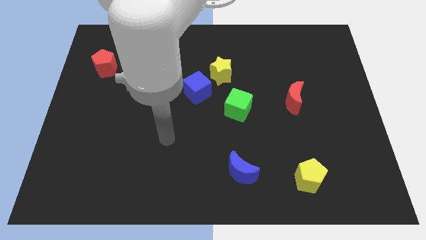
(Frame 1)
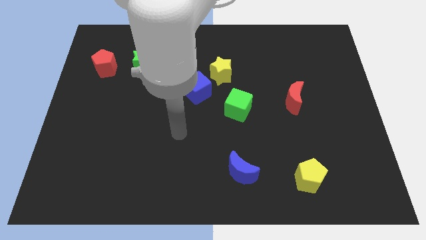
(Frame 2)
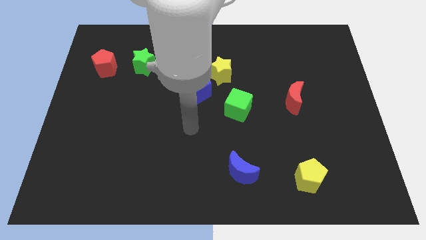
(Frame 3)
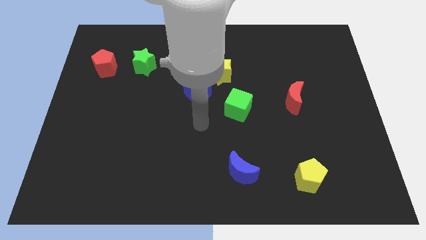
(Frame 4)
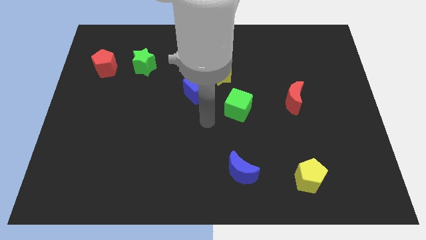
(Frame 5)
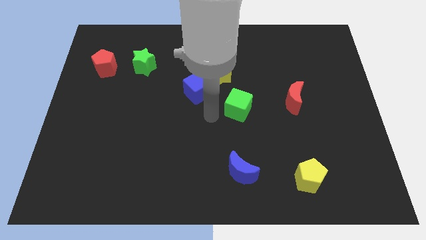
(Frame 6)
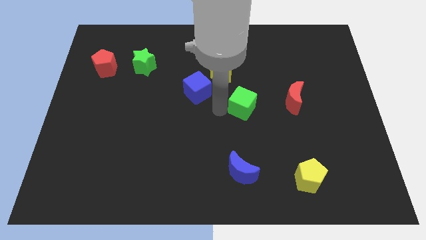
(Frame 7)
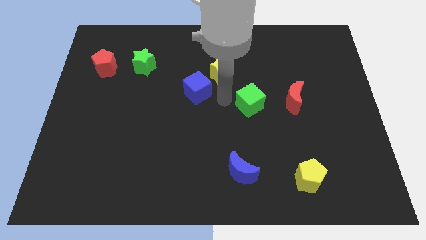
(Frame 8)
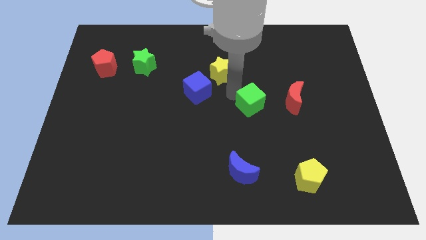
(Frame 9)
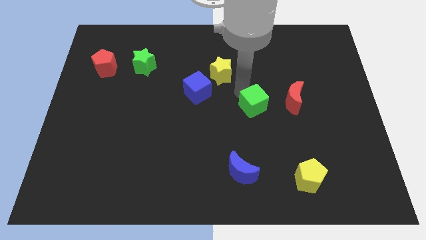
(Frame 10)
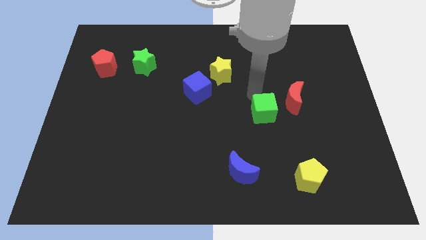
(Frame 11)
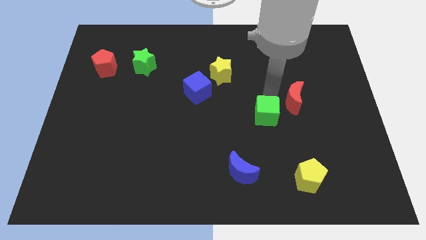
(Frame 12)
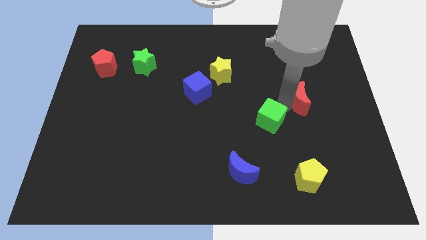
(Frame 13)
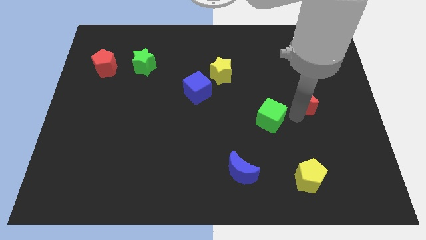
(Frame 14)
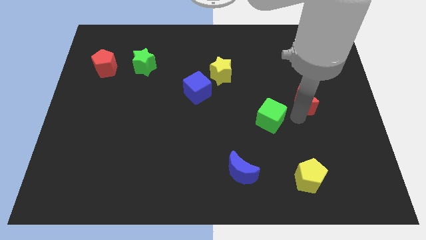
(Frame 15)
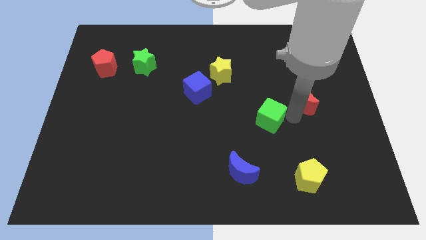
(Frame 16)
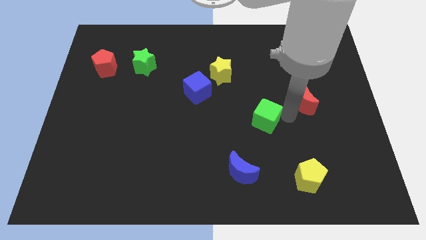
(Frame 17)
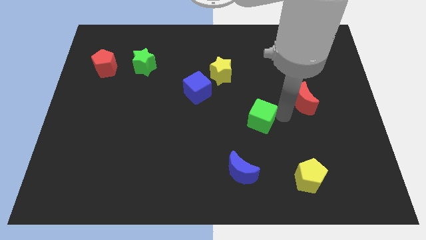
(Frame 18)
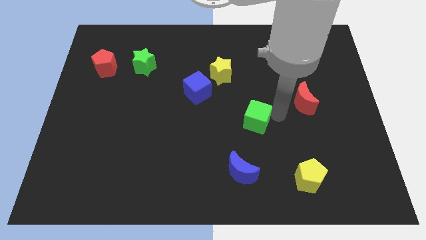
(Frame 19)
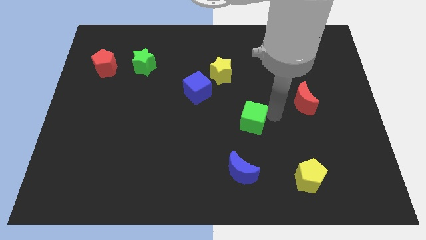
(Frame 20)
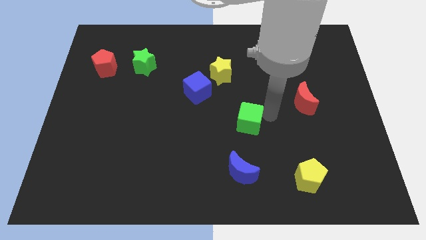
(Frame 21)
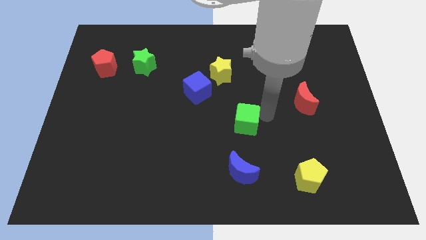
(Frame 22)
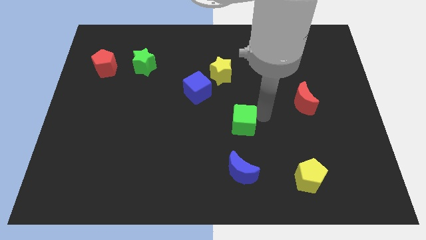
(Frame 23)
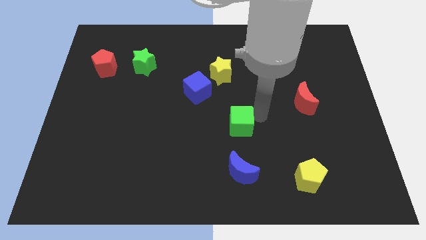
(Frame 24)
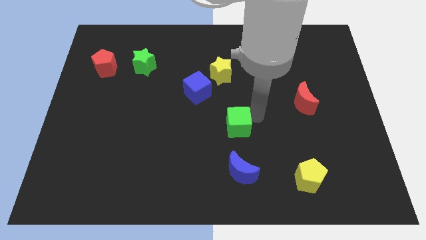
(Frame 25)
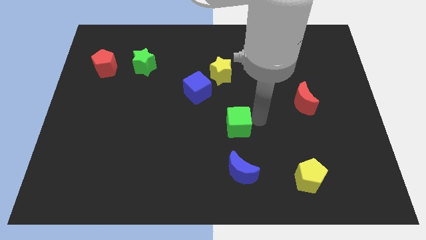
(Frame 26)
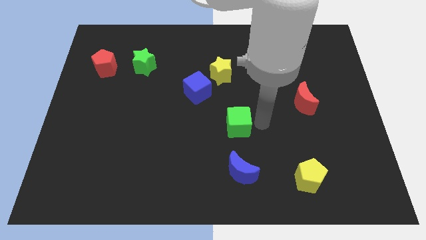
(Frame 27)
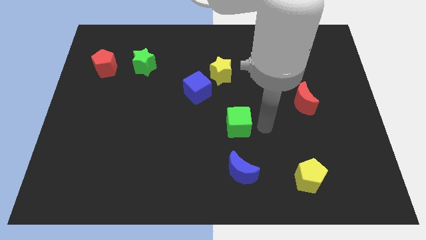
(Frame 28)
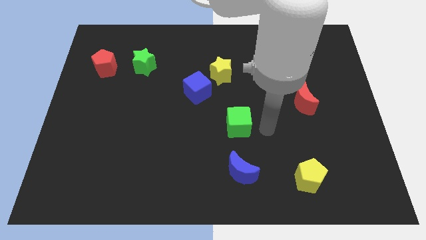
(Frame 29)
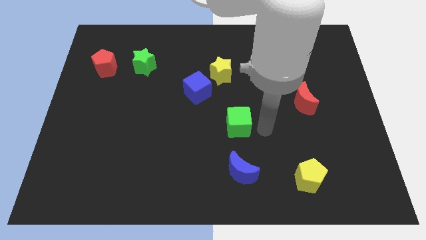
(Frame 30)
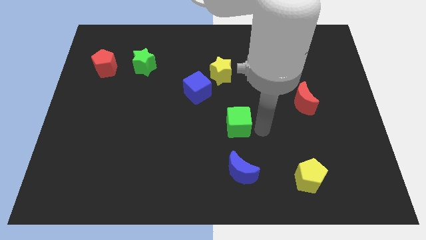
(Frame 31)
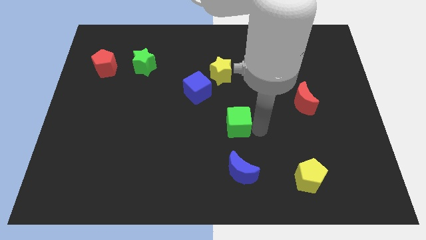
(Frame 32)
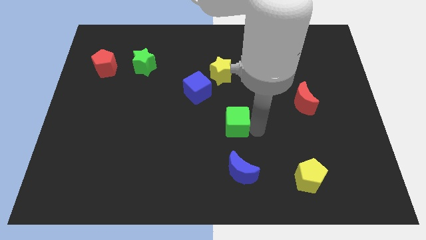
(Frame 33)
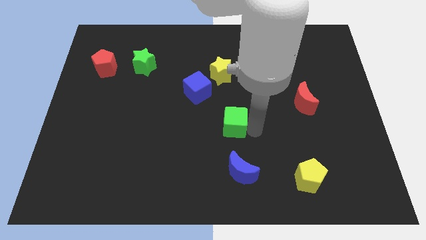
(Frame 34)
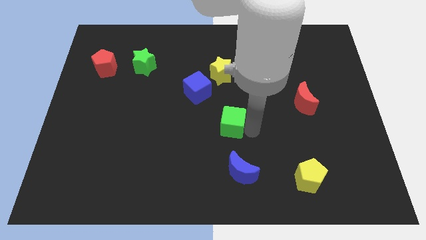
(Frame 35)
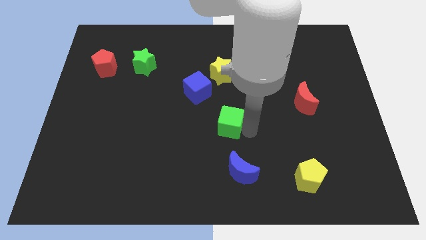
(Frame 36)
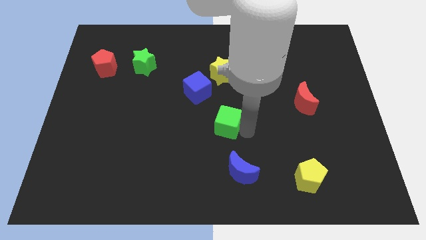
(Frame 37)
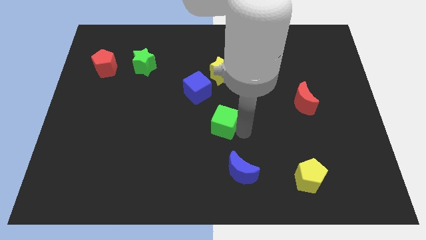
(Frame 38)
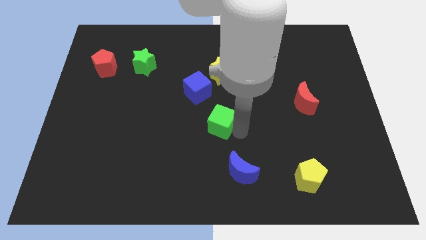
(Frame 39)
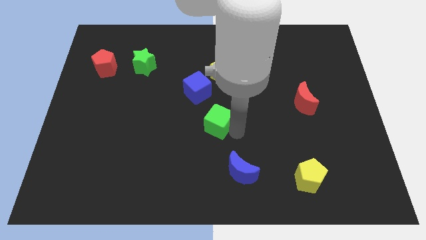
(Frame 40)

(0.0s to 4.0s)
slightly slide the green cube downwards and to the left diagonally

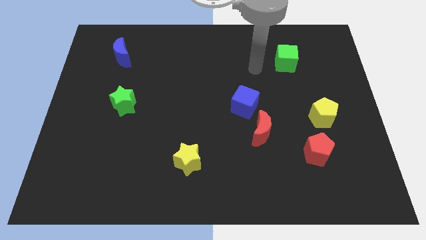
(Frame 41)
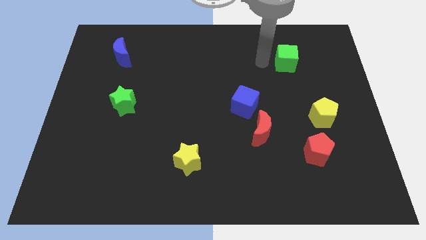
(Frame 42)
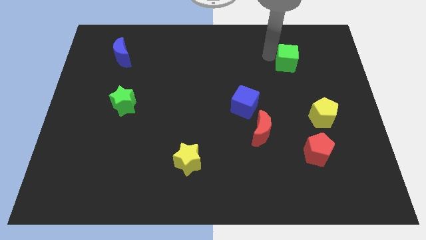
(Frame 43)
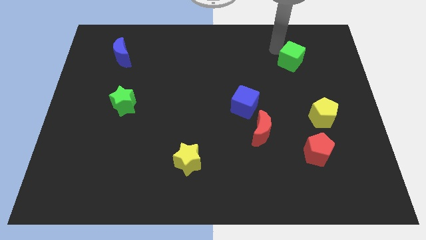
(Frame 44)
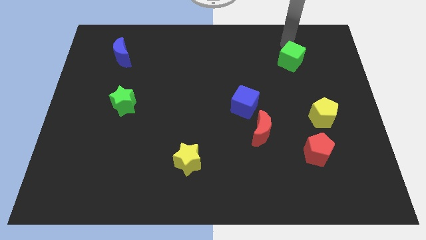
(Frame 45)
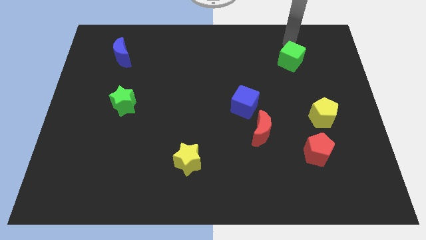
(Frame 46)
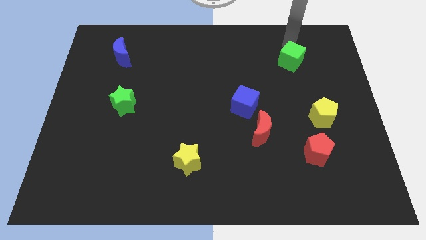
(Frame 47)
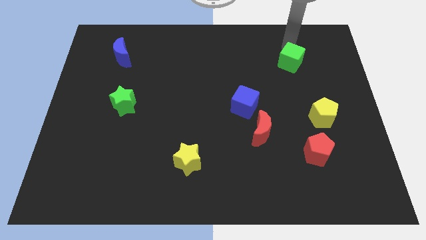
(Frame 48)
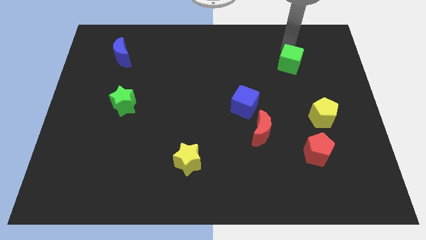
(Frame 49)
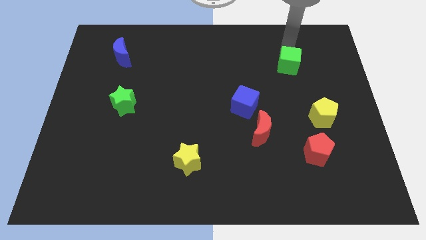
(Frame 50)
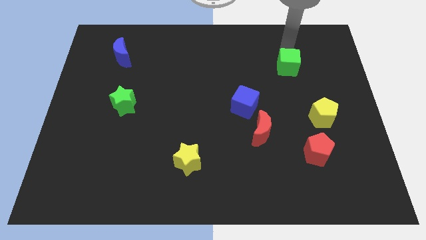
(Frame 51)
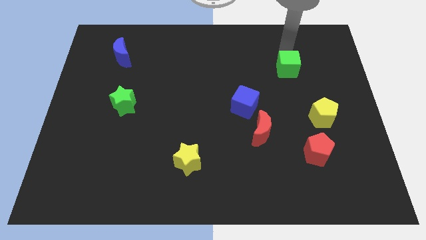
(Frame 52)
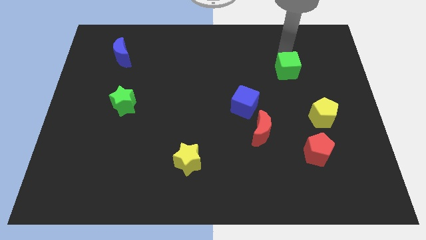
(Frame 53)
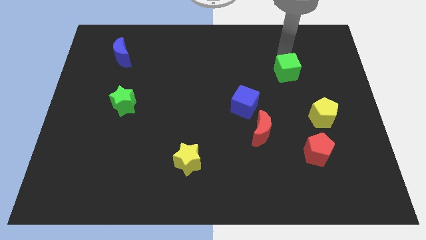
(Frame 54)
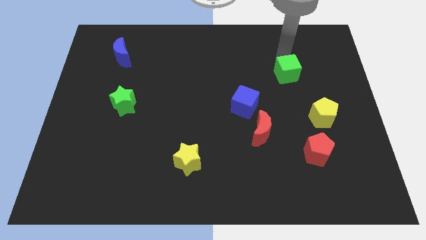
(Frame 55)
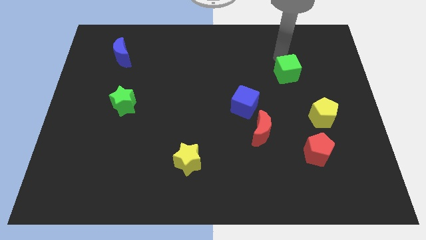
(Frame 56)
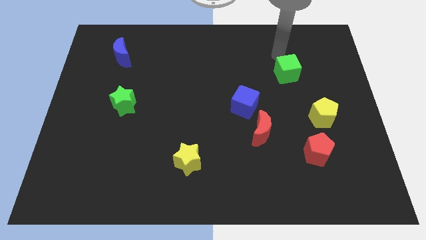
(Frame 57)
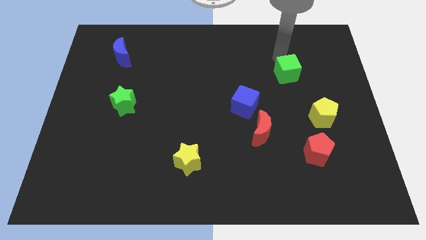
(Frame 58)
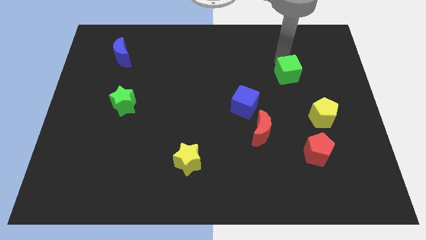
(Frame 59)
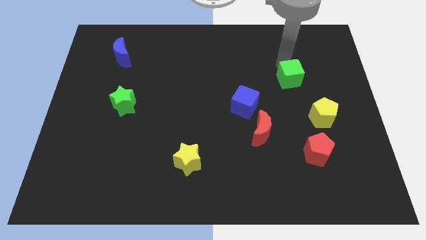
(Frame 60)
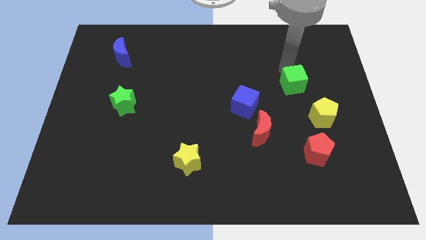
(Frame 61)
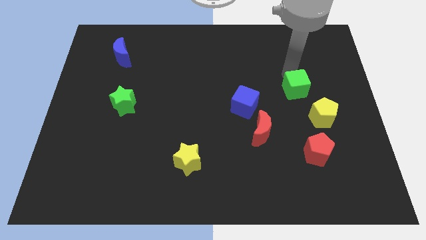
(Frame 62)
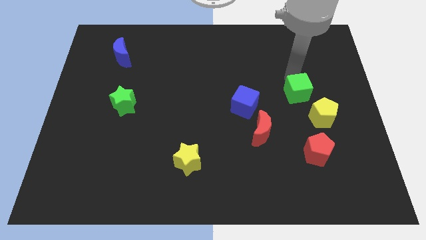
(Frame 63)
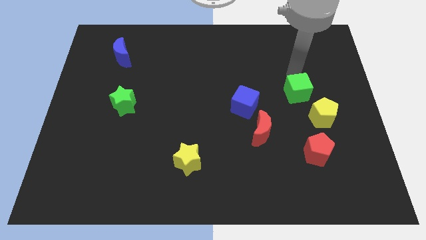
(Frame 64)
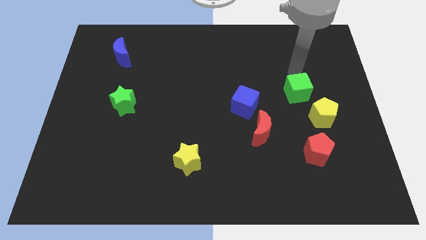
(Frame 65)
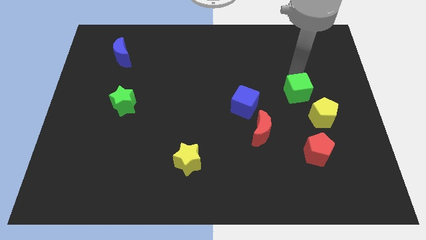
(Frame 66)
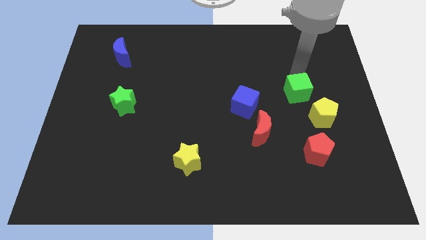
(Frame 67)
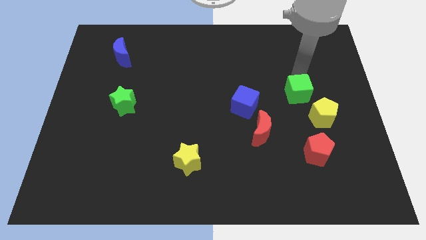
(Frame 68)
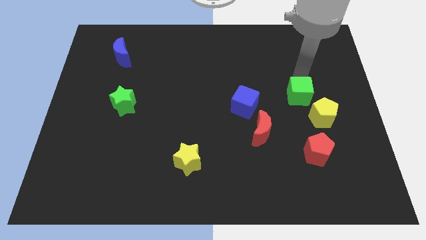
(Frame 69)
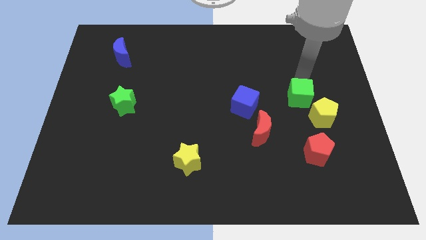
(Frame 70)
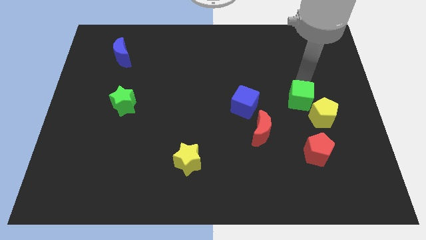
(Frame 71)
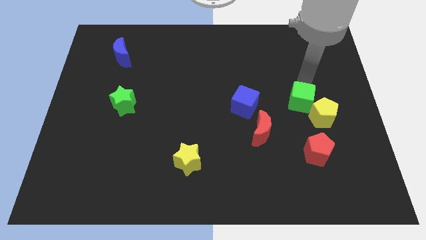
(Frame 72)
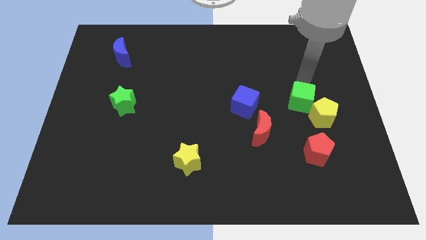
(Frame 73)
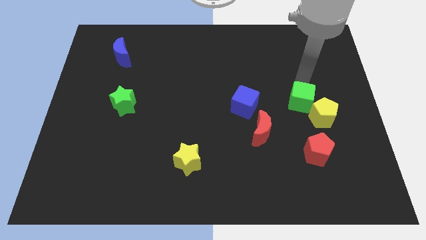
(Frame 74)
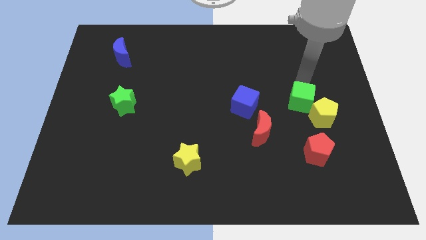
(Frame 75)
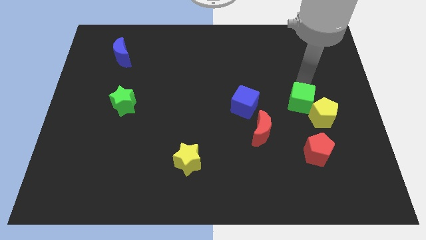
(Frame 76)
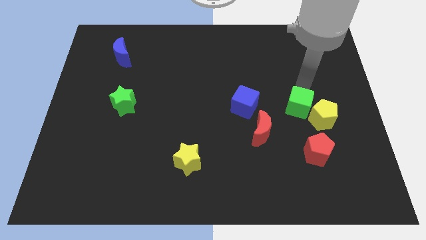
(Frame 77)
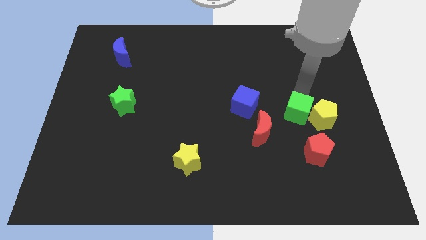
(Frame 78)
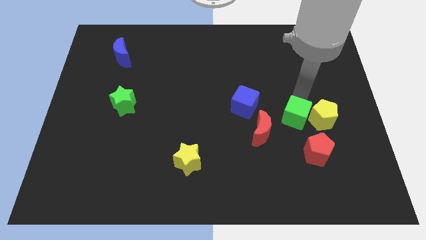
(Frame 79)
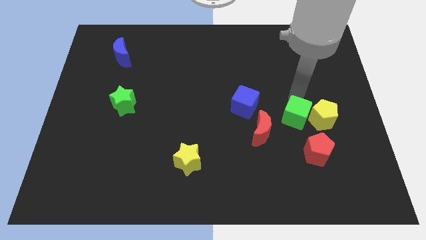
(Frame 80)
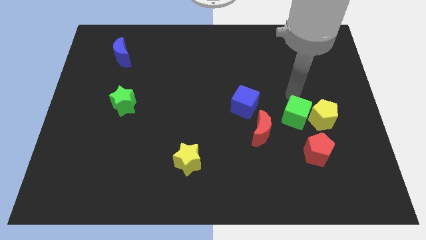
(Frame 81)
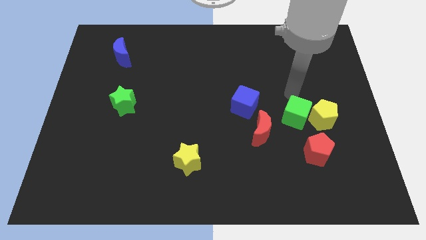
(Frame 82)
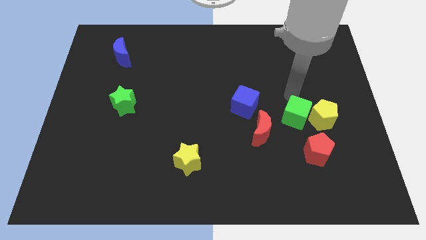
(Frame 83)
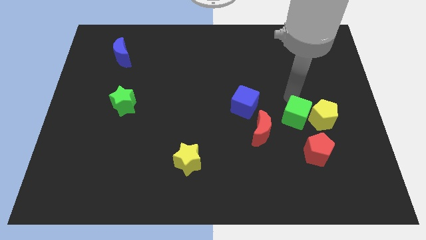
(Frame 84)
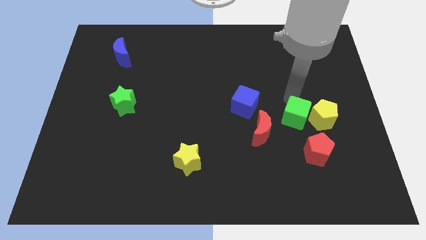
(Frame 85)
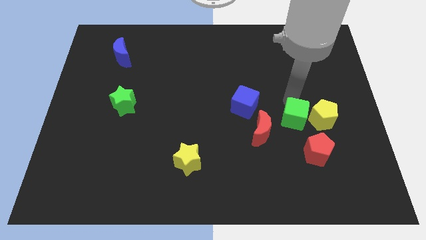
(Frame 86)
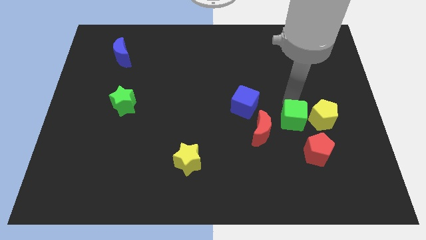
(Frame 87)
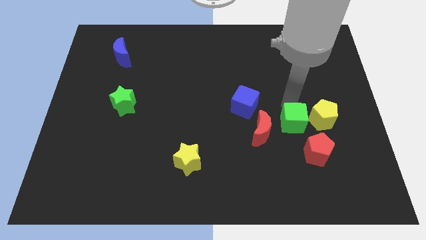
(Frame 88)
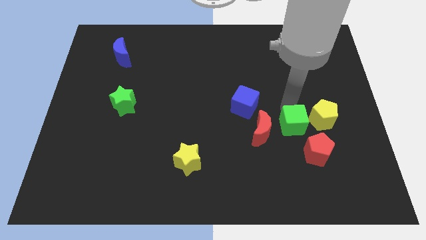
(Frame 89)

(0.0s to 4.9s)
slide the green cube down
